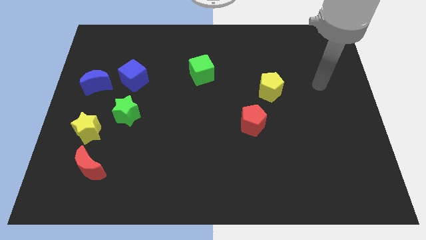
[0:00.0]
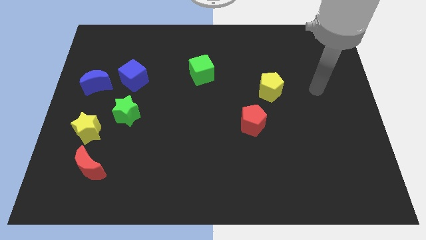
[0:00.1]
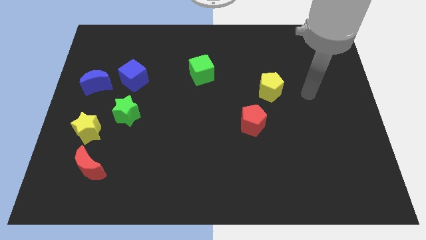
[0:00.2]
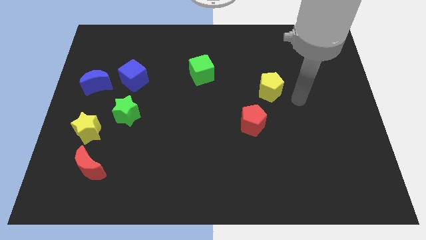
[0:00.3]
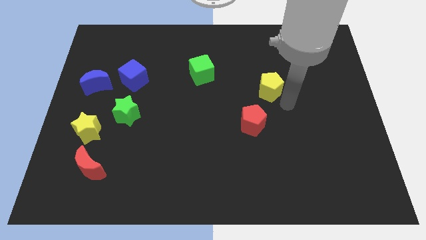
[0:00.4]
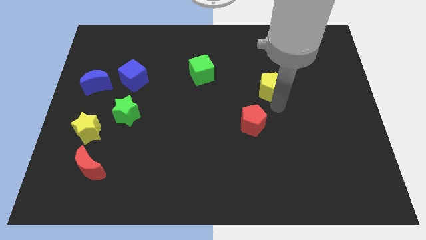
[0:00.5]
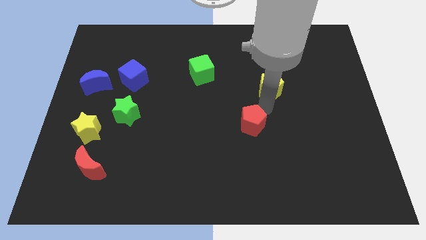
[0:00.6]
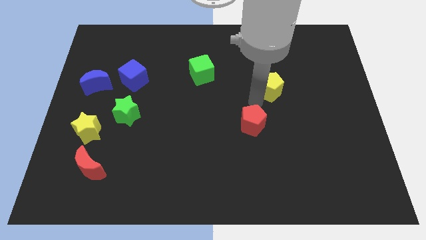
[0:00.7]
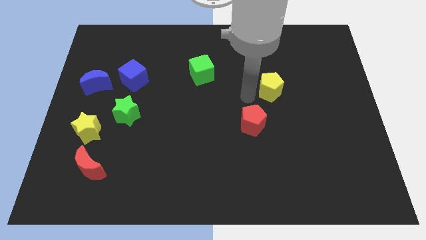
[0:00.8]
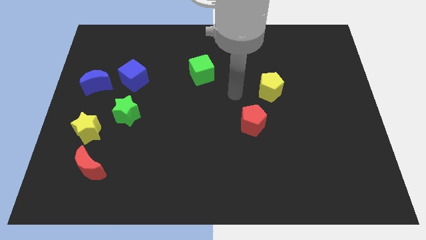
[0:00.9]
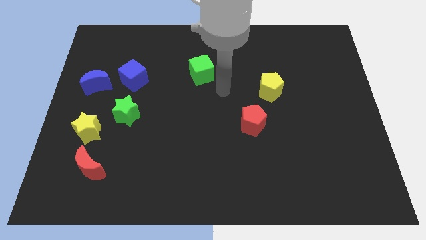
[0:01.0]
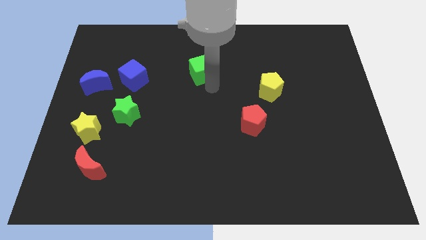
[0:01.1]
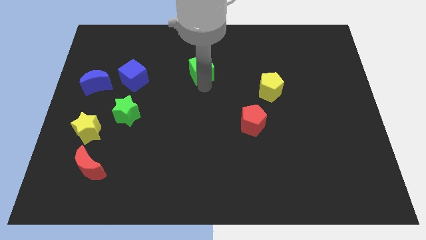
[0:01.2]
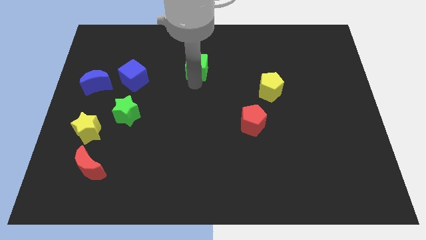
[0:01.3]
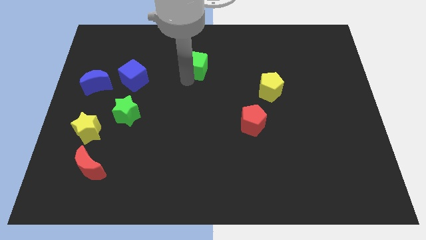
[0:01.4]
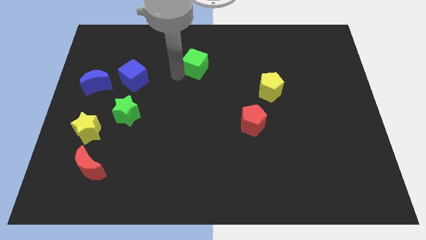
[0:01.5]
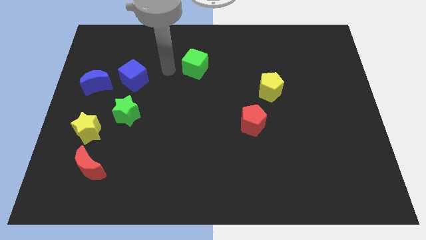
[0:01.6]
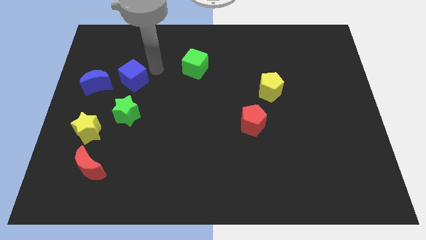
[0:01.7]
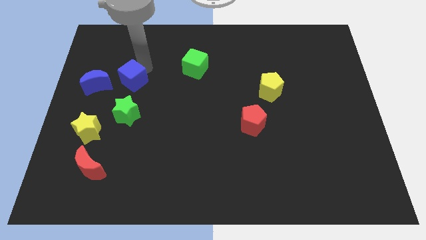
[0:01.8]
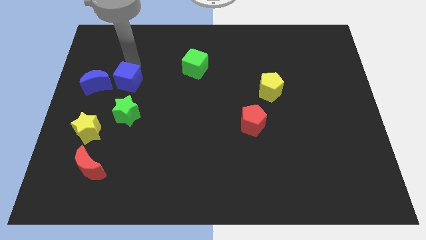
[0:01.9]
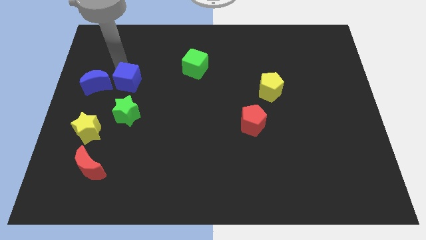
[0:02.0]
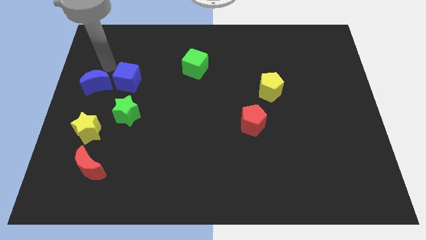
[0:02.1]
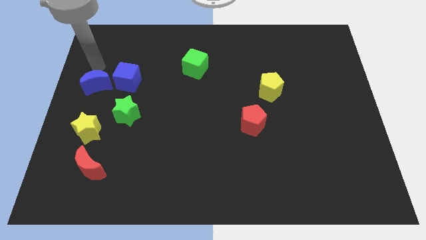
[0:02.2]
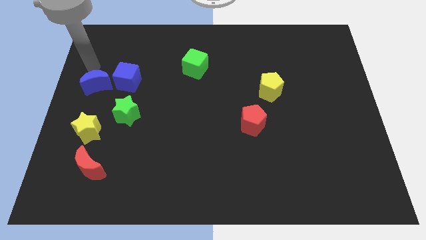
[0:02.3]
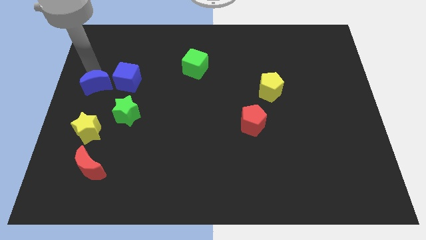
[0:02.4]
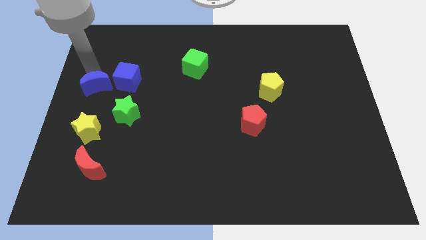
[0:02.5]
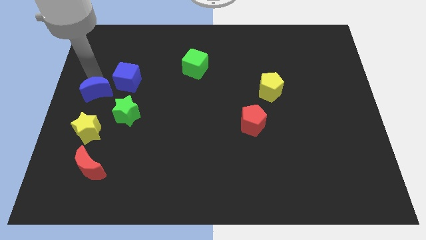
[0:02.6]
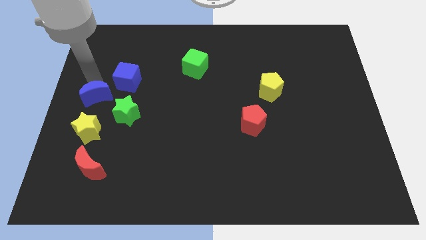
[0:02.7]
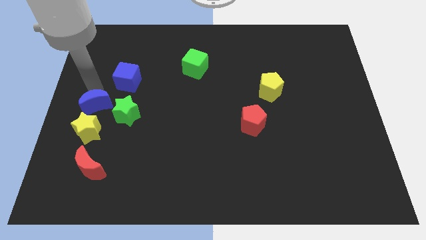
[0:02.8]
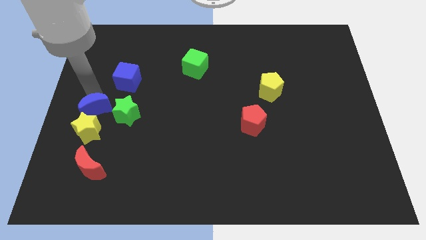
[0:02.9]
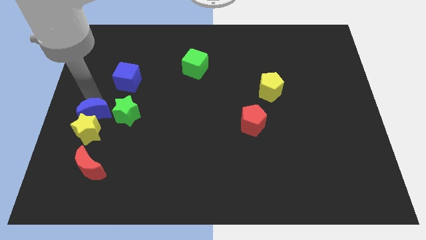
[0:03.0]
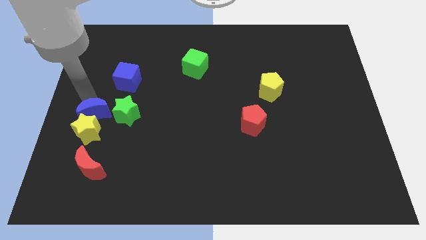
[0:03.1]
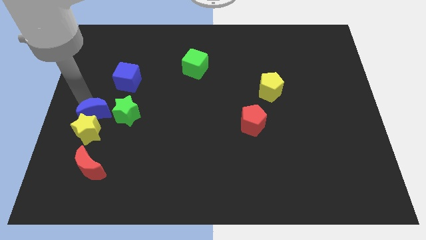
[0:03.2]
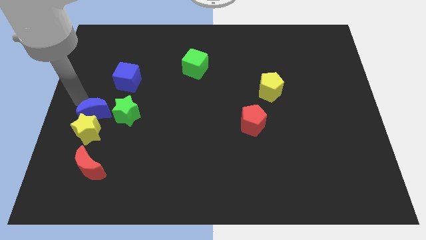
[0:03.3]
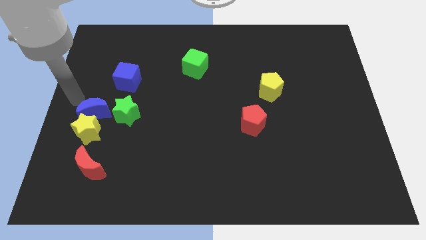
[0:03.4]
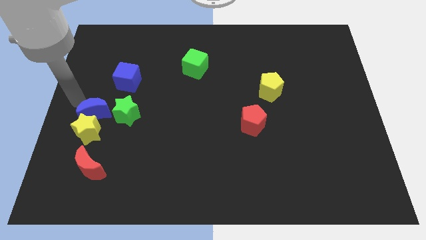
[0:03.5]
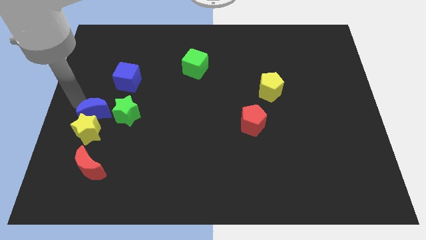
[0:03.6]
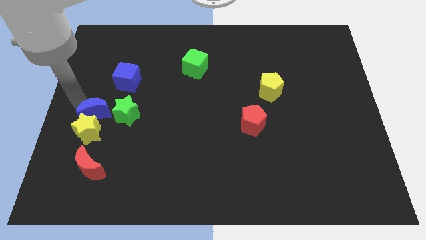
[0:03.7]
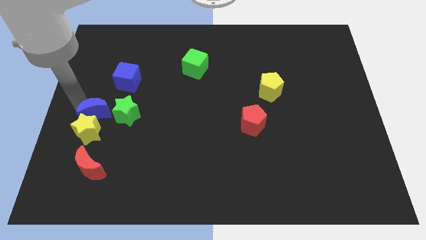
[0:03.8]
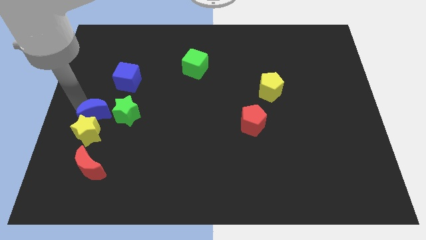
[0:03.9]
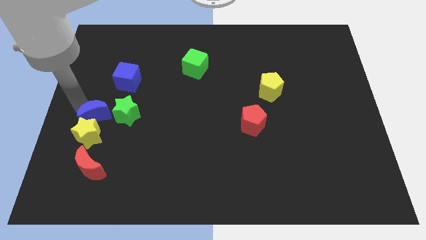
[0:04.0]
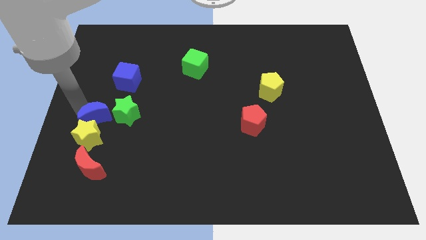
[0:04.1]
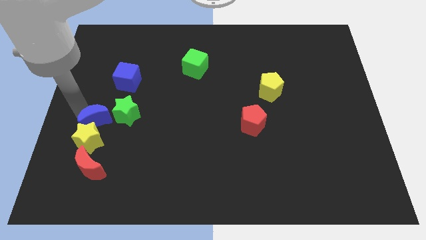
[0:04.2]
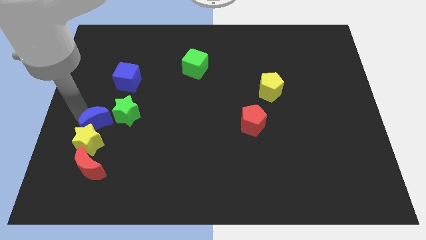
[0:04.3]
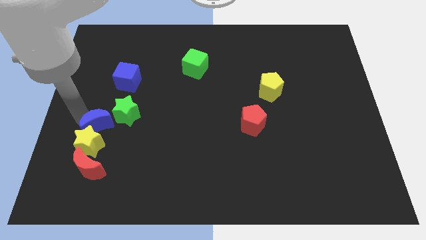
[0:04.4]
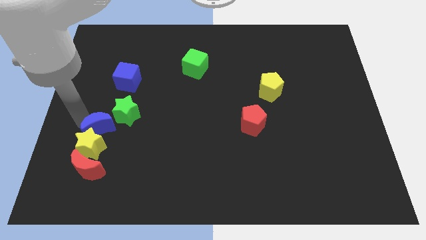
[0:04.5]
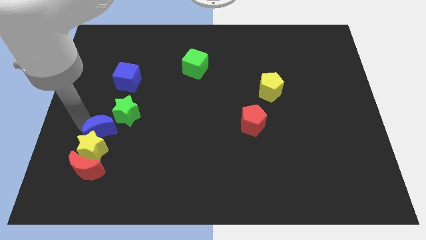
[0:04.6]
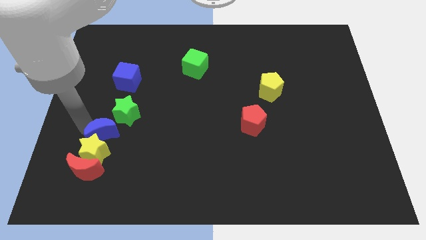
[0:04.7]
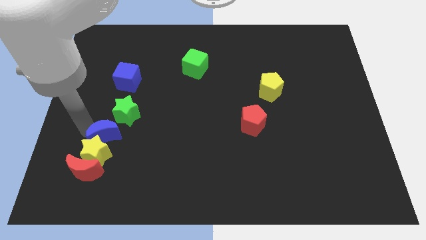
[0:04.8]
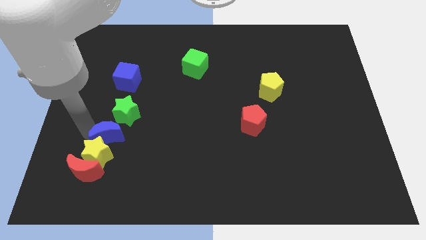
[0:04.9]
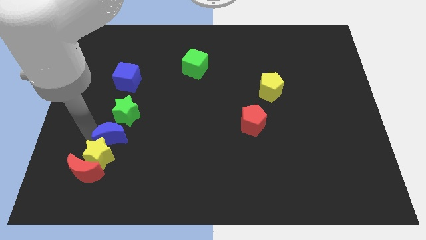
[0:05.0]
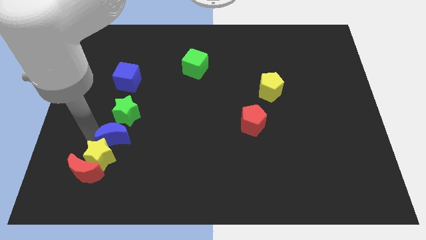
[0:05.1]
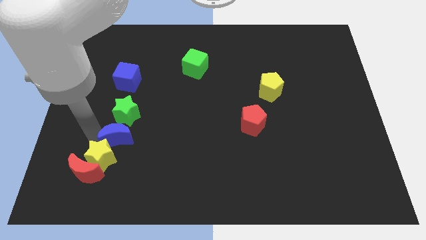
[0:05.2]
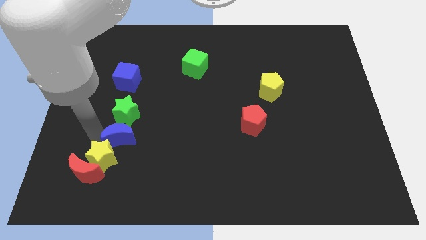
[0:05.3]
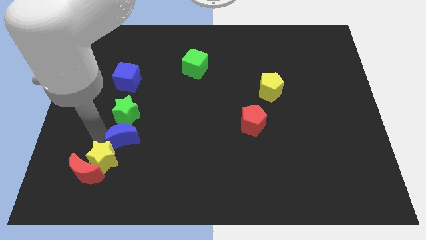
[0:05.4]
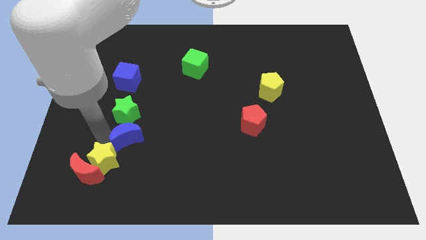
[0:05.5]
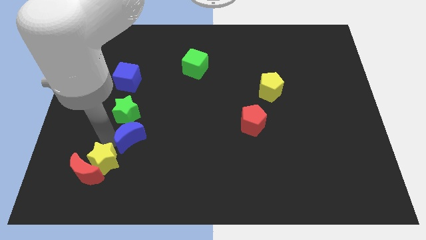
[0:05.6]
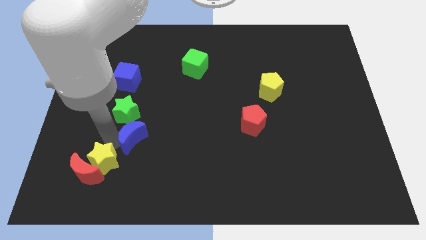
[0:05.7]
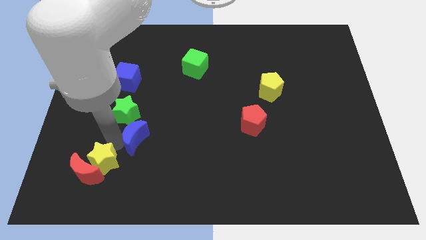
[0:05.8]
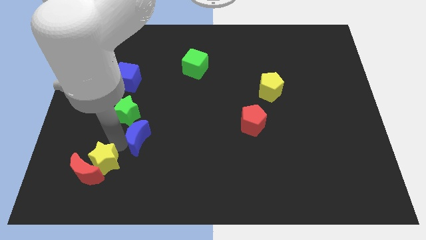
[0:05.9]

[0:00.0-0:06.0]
push the blue moon diagonally downwards and to the right

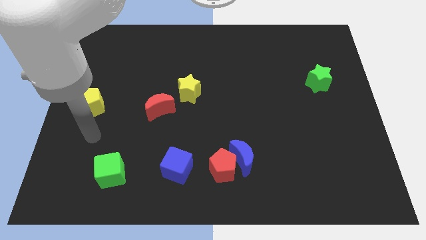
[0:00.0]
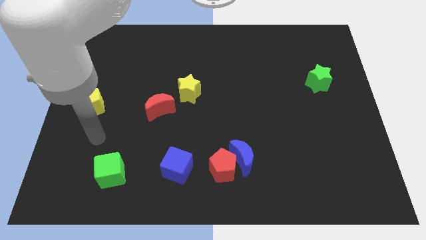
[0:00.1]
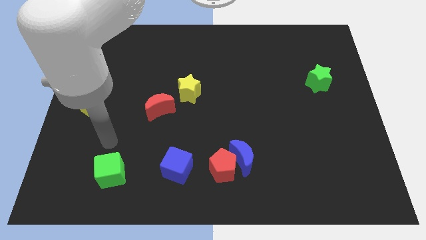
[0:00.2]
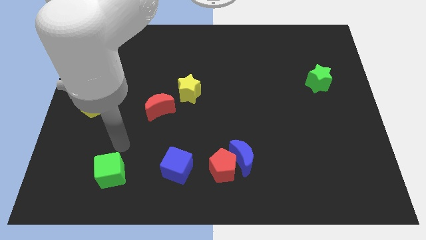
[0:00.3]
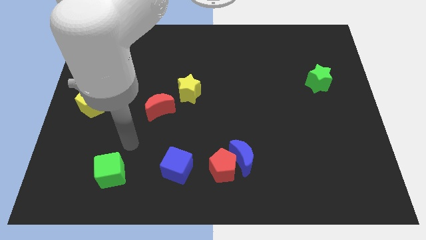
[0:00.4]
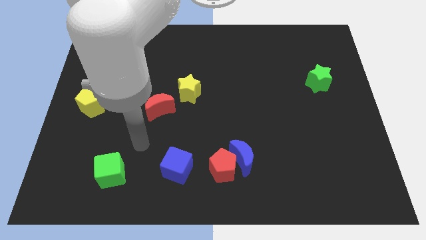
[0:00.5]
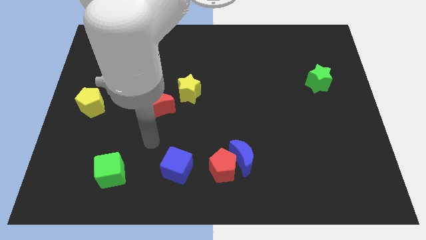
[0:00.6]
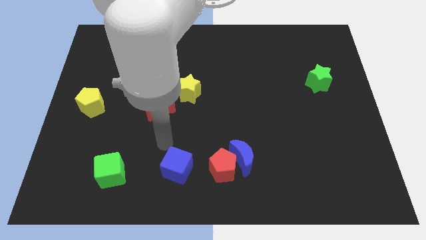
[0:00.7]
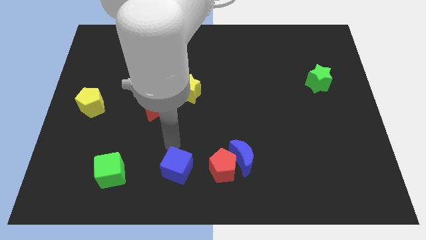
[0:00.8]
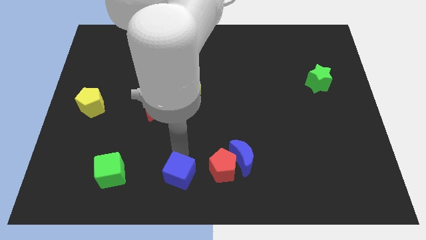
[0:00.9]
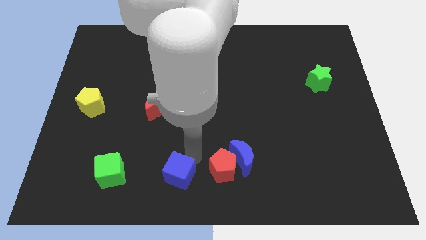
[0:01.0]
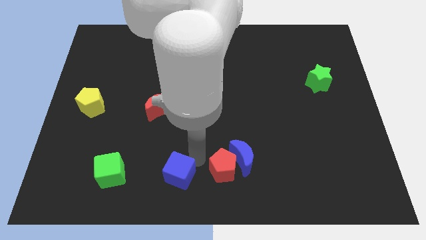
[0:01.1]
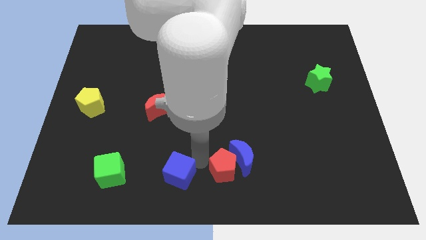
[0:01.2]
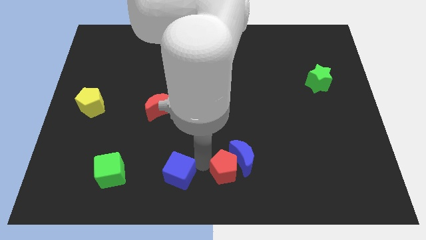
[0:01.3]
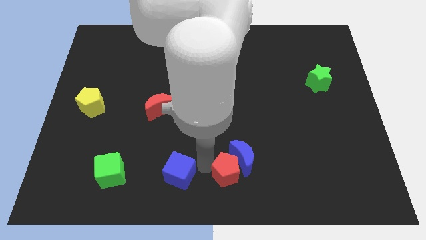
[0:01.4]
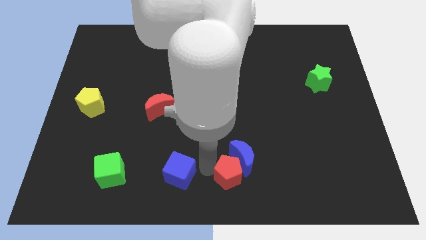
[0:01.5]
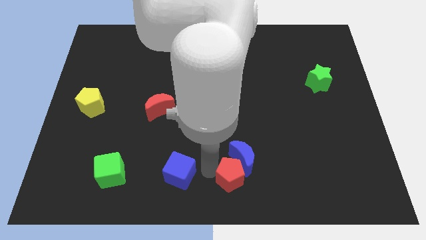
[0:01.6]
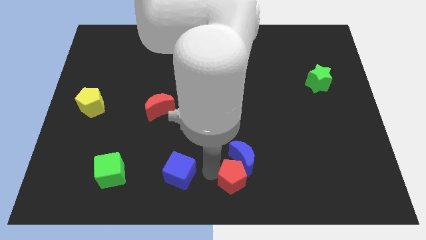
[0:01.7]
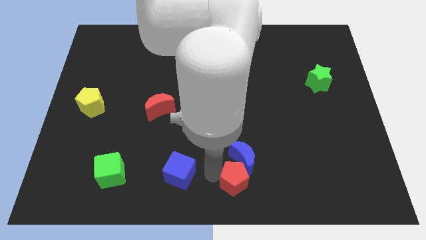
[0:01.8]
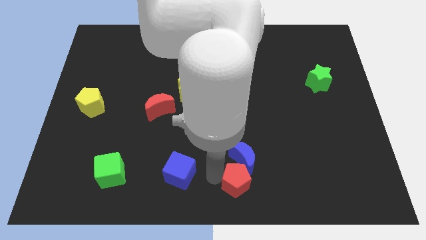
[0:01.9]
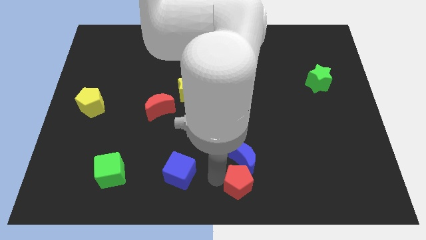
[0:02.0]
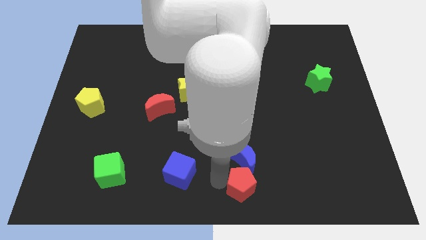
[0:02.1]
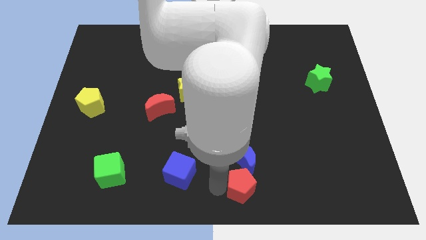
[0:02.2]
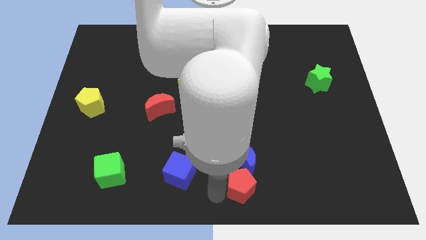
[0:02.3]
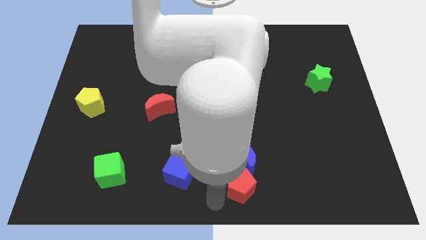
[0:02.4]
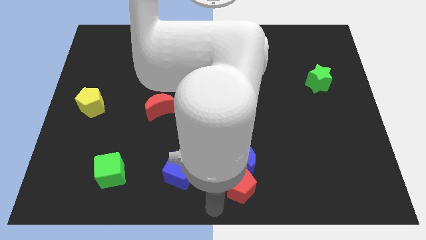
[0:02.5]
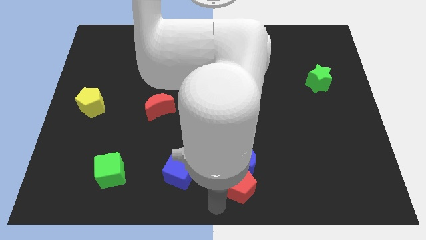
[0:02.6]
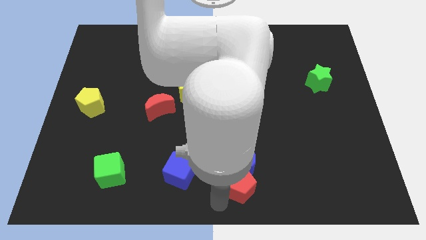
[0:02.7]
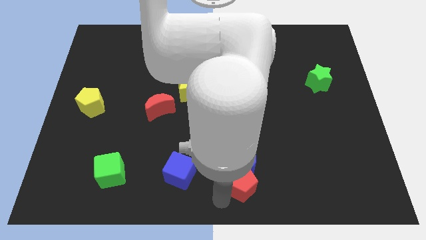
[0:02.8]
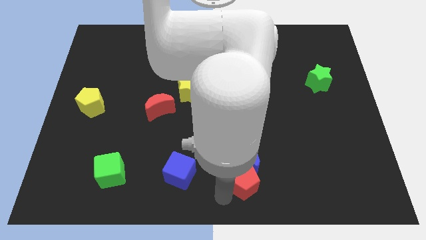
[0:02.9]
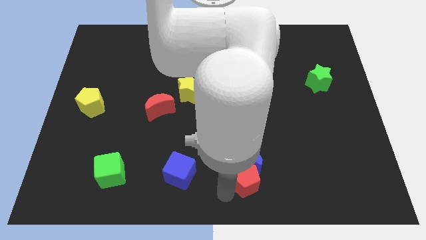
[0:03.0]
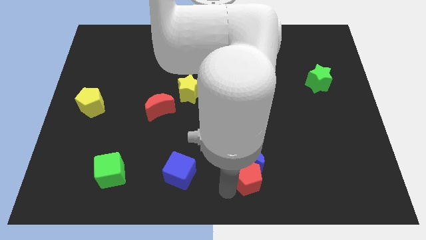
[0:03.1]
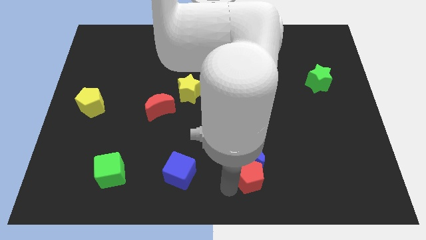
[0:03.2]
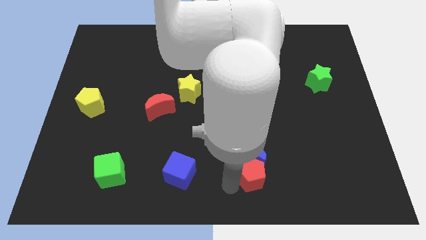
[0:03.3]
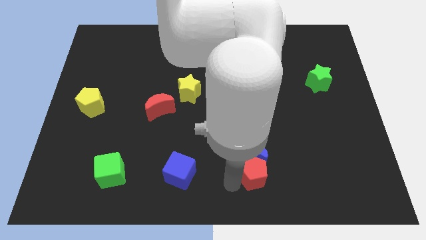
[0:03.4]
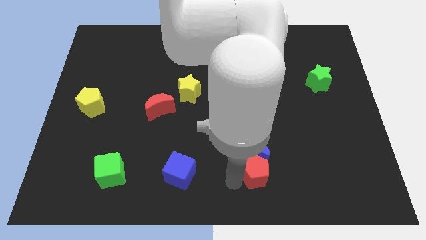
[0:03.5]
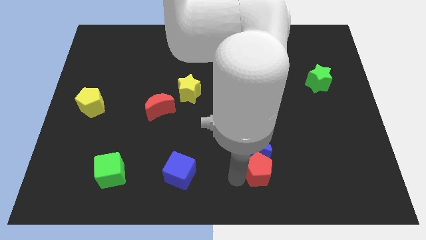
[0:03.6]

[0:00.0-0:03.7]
slide the red pentagon somewhat to the right
